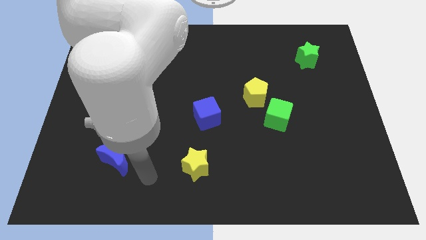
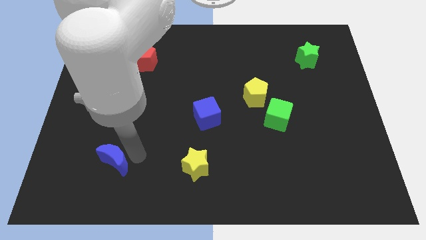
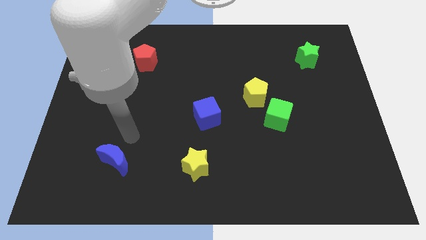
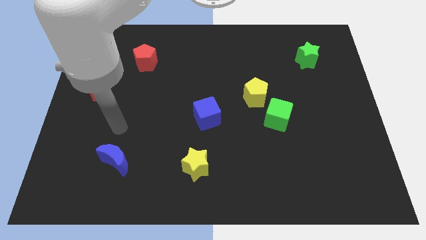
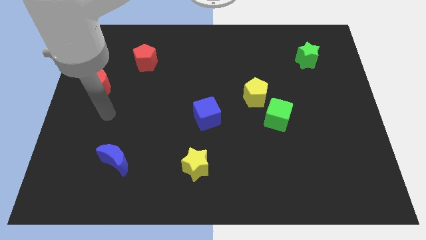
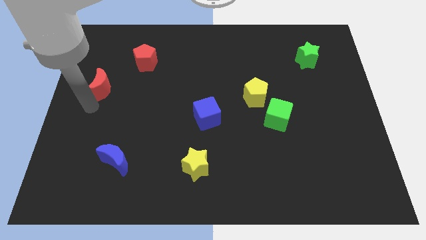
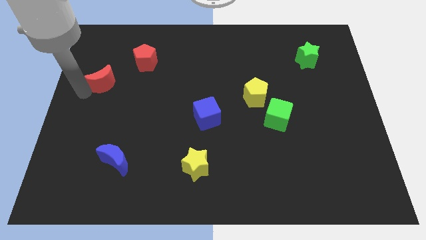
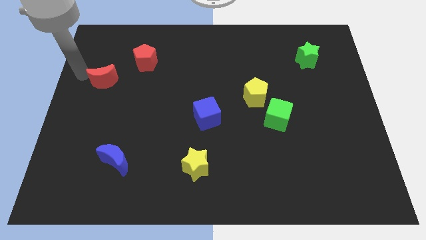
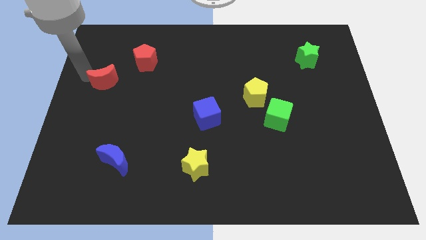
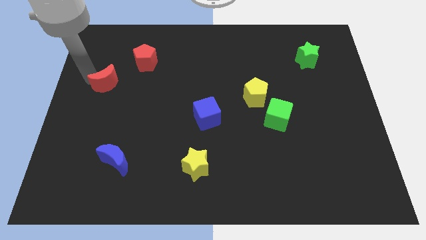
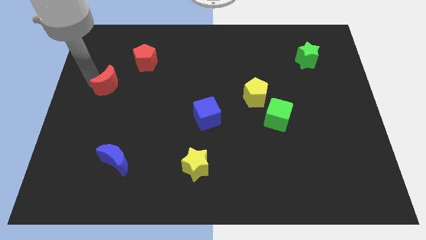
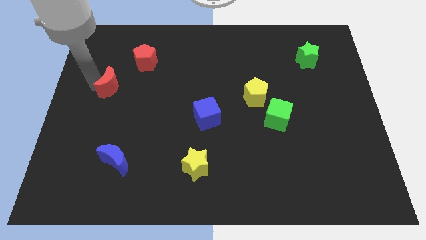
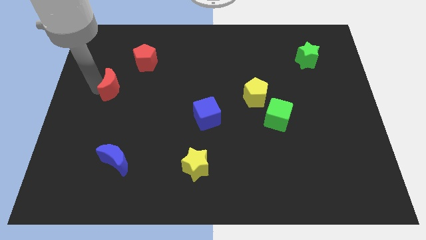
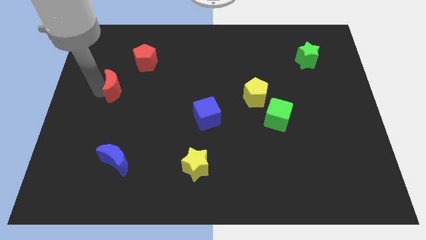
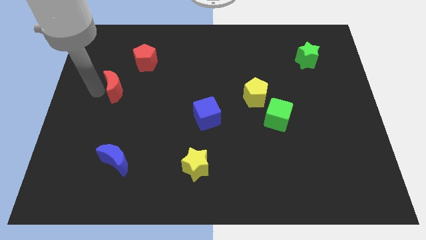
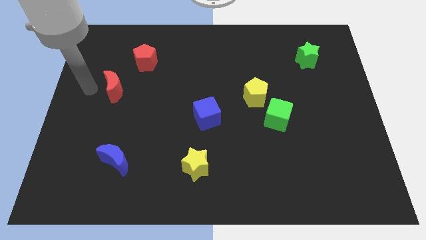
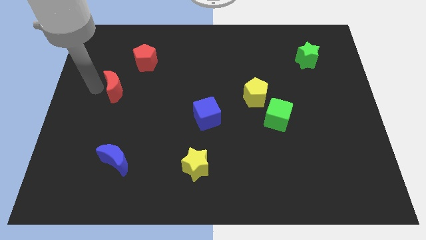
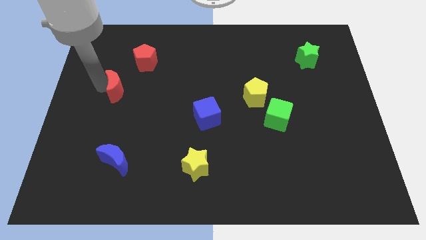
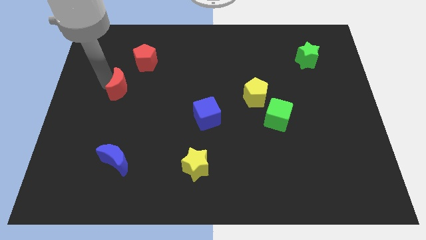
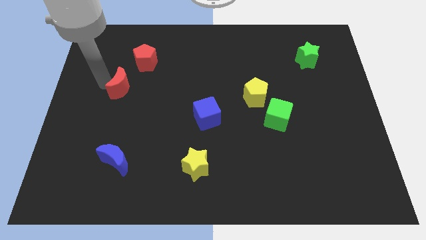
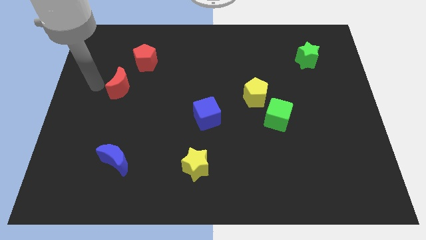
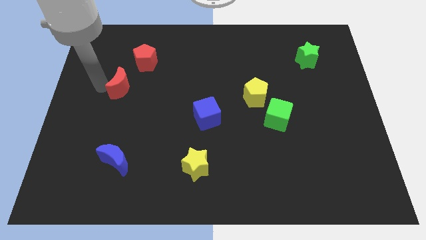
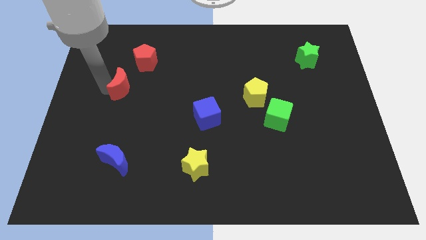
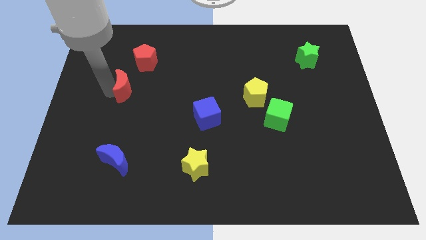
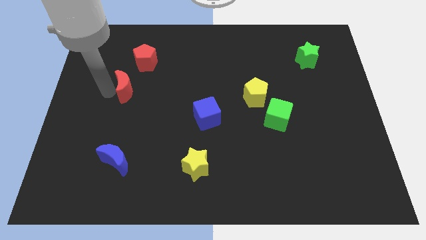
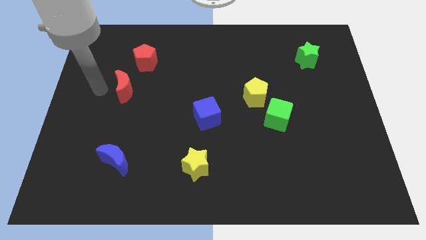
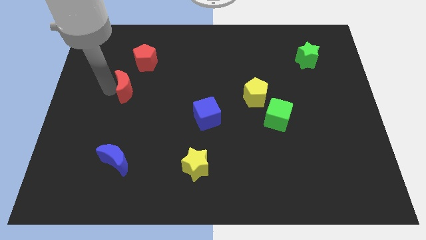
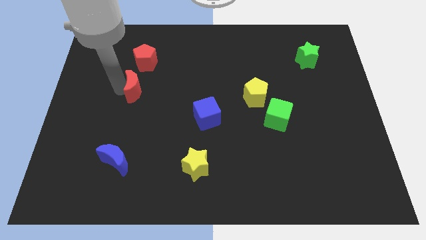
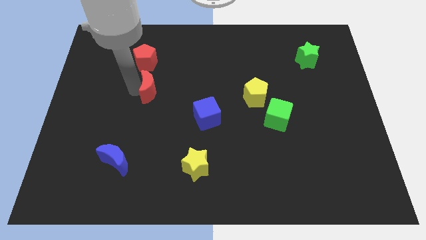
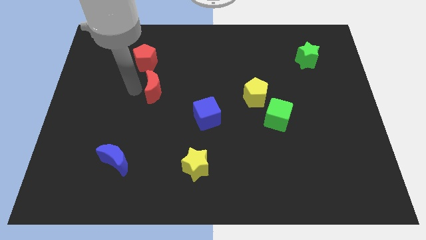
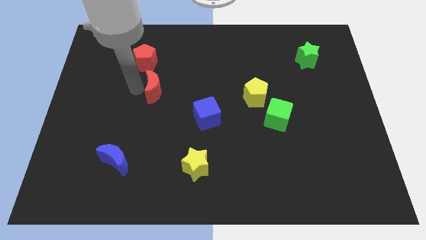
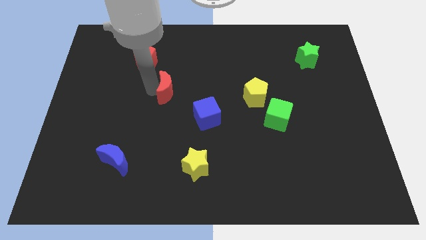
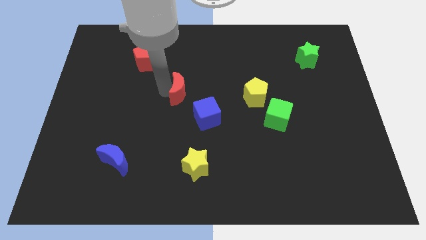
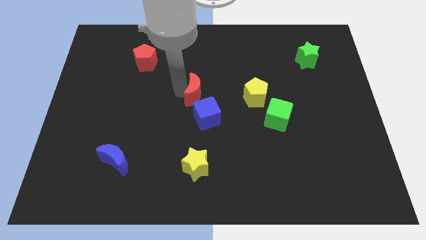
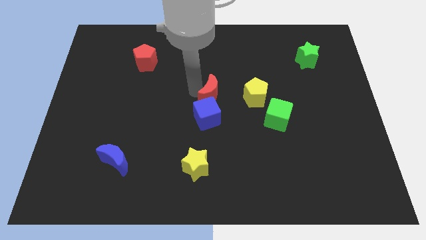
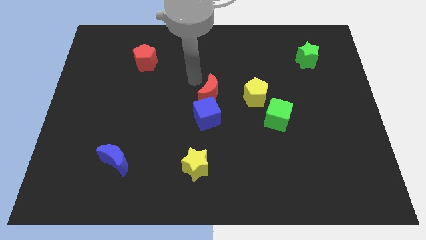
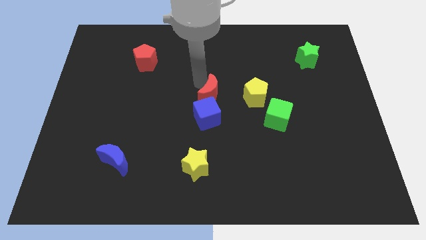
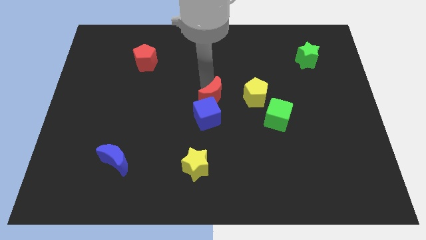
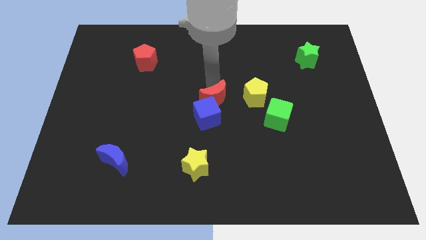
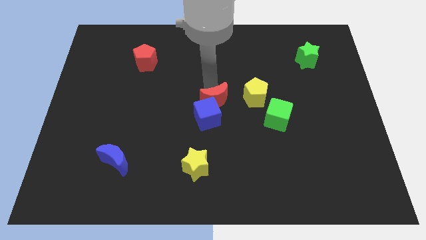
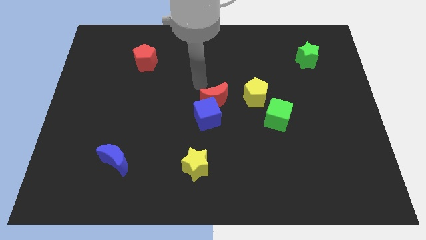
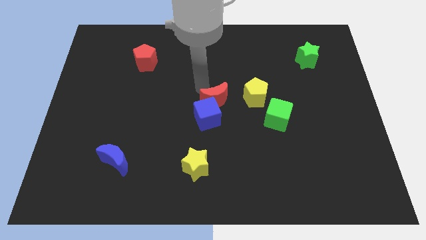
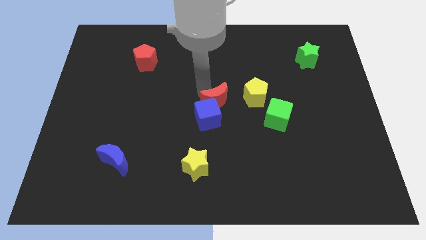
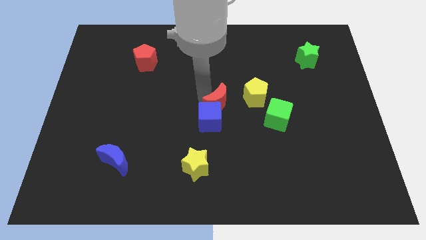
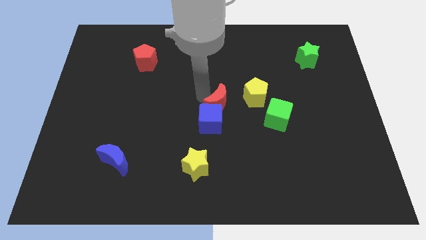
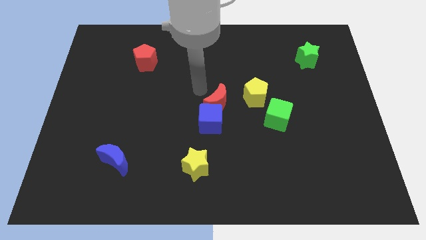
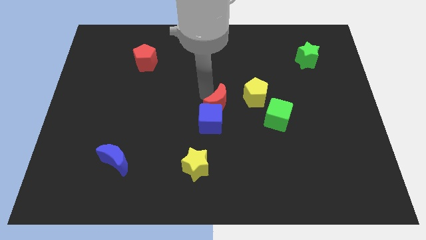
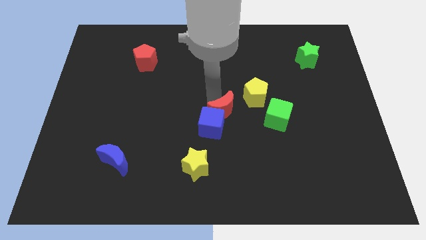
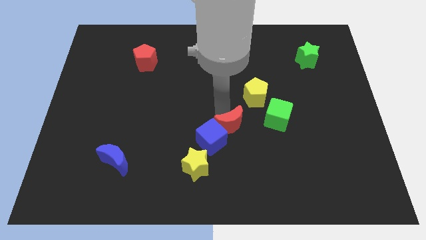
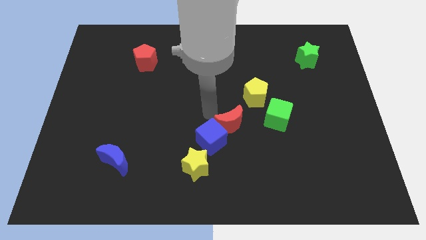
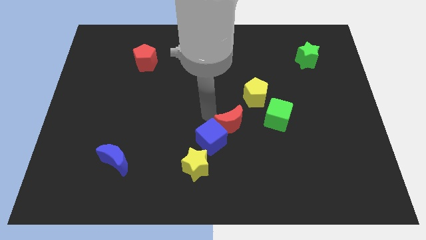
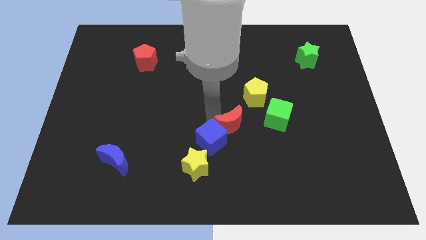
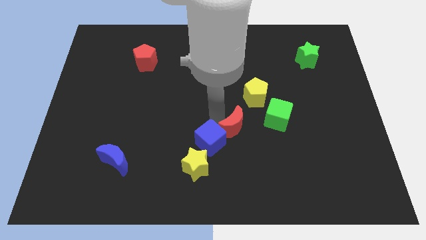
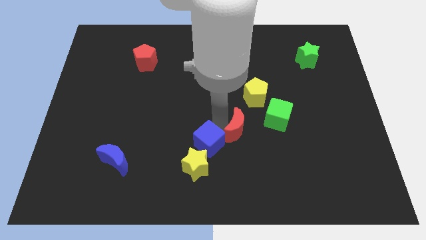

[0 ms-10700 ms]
move the red moon diagonally down and to the left of the green cube

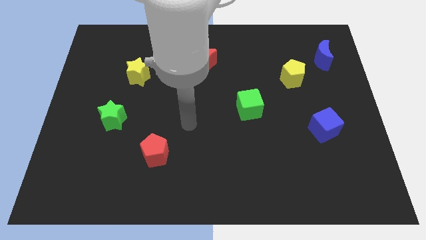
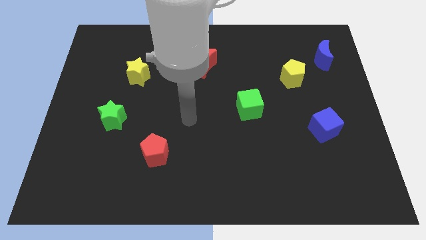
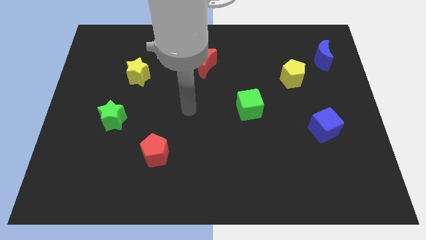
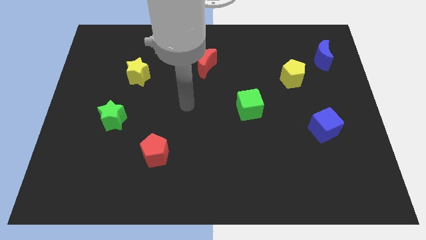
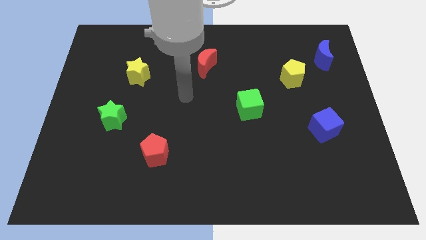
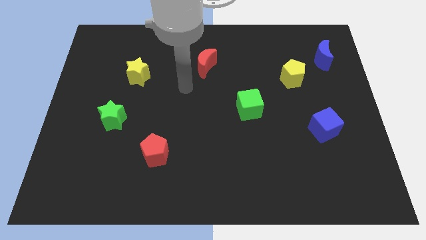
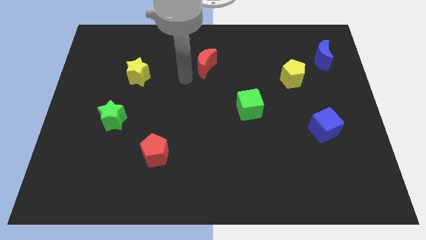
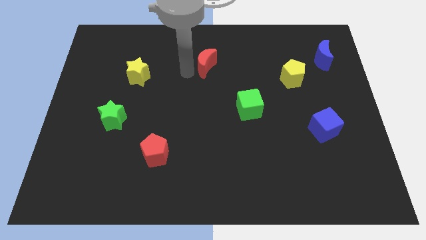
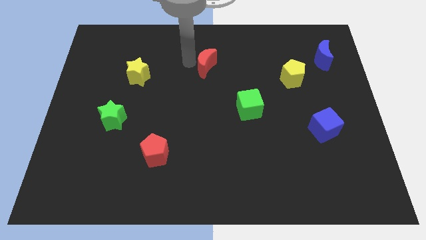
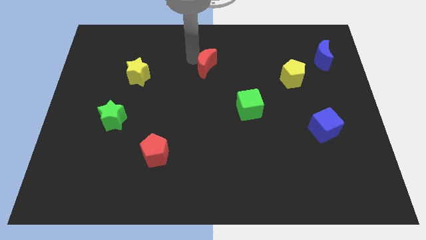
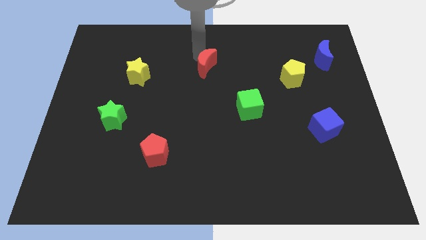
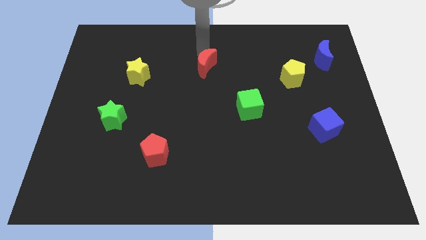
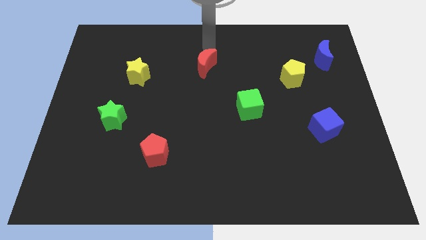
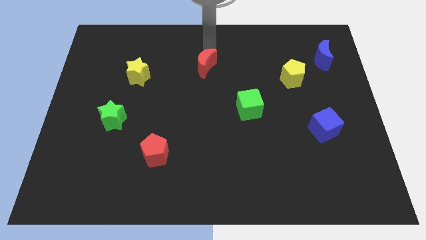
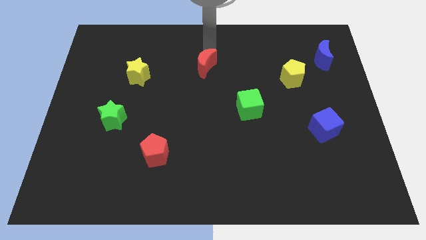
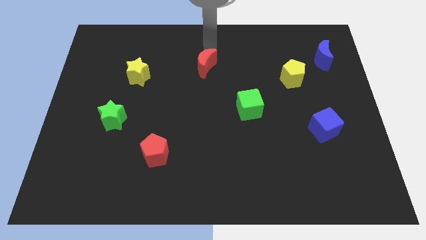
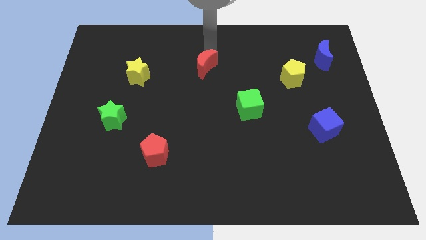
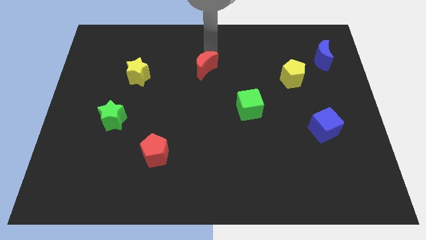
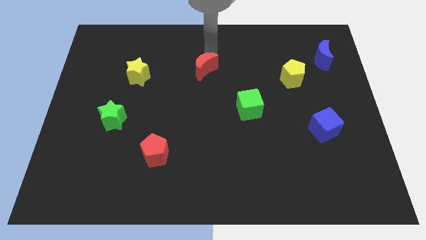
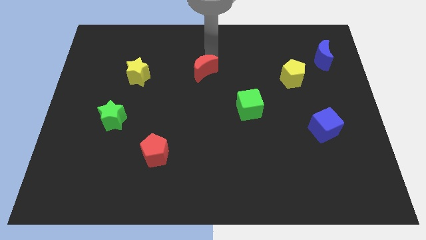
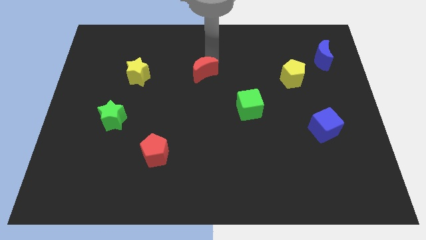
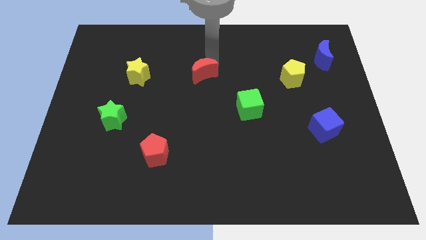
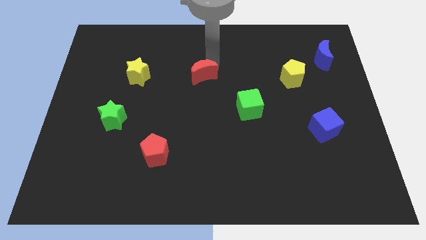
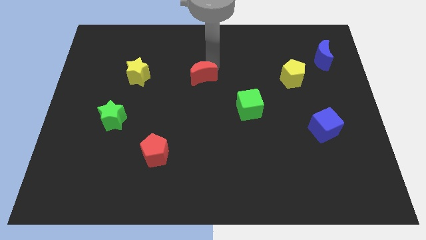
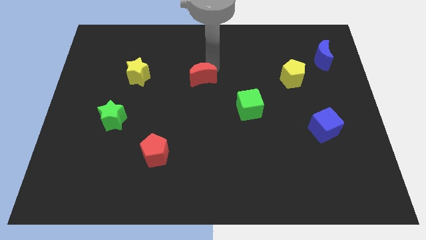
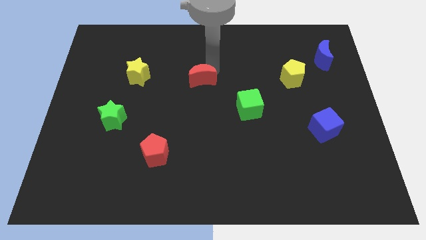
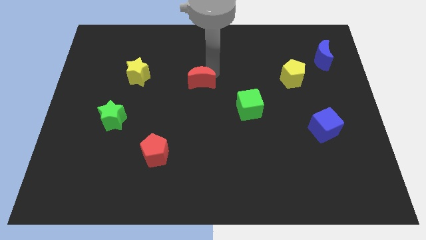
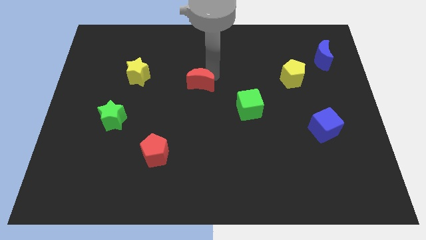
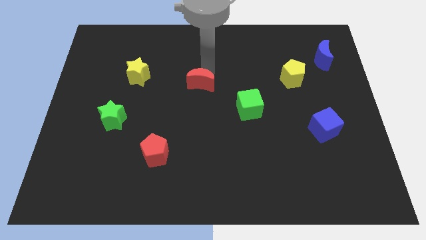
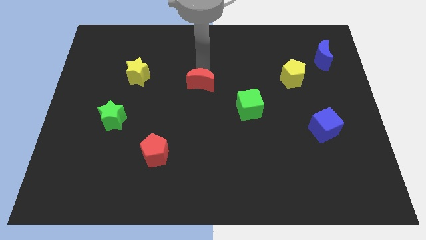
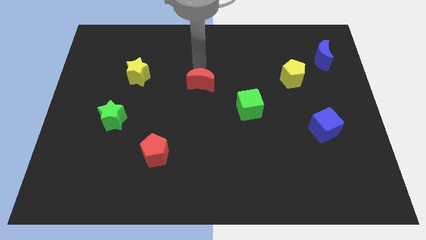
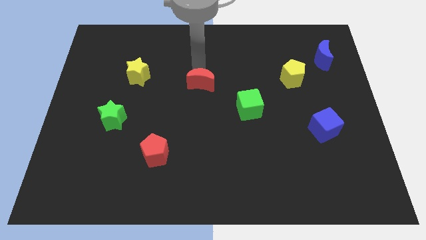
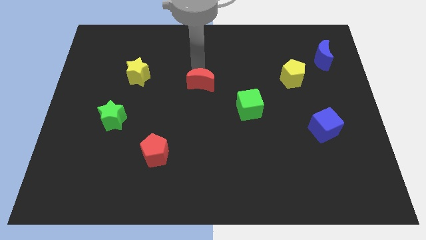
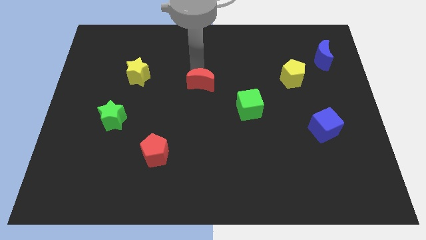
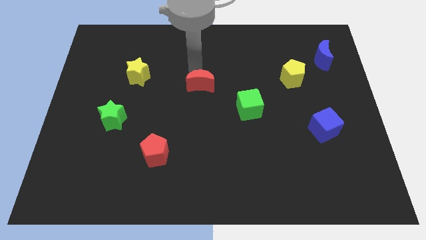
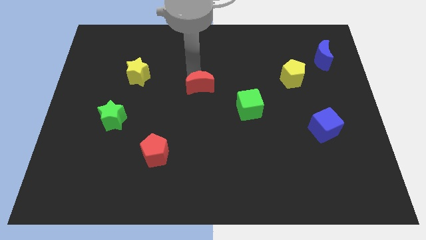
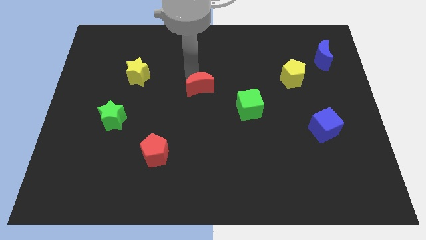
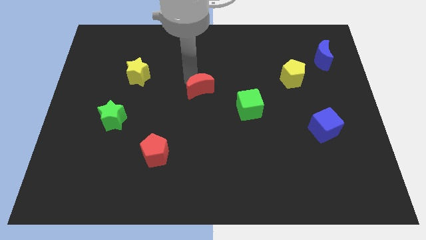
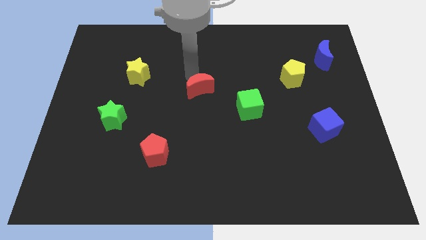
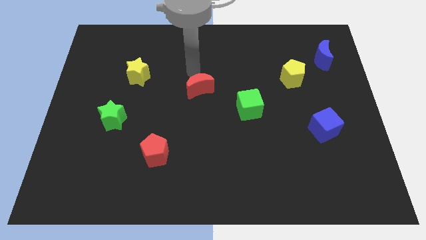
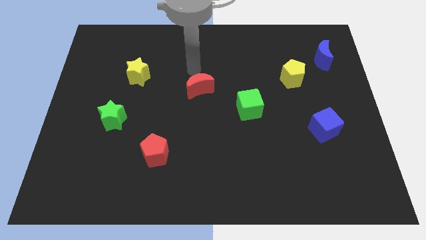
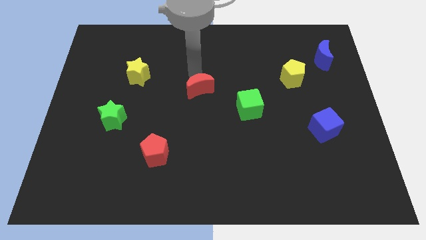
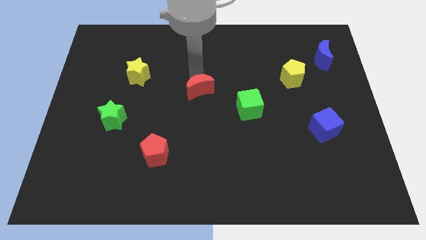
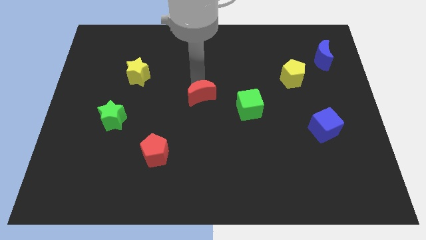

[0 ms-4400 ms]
put the red moon to the left of the green cube
